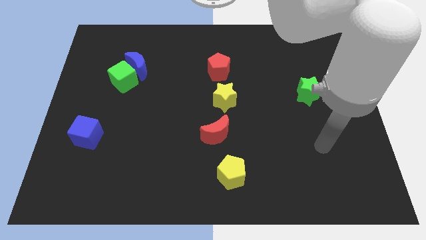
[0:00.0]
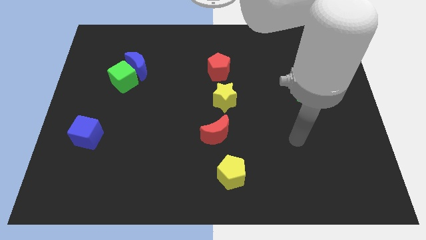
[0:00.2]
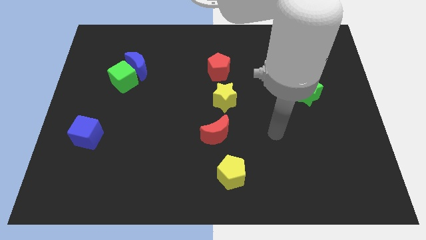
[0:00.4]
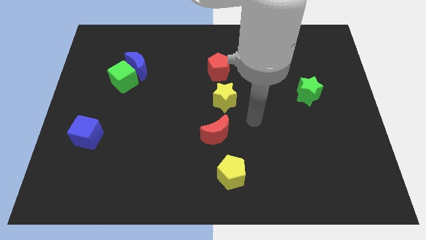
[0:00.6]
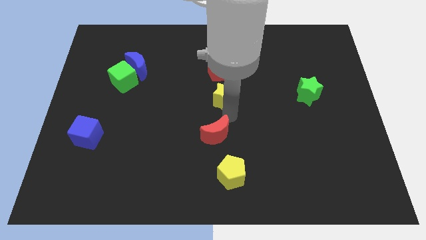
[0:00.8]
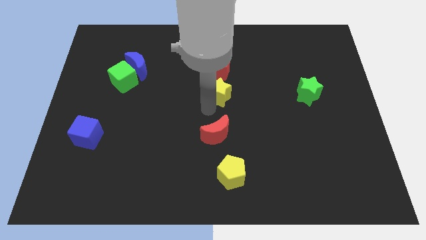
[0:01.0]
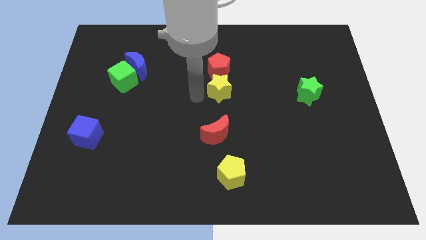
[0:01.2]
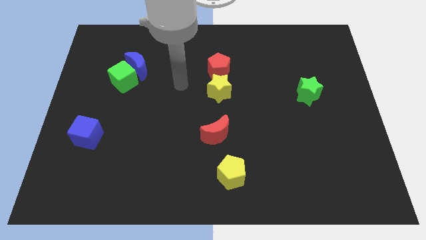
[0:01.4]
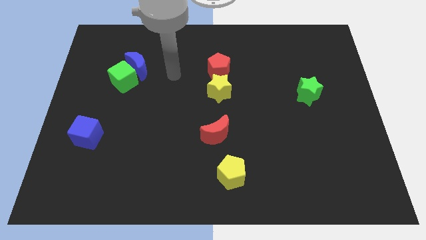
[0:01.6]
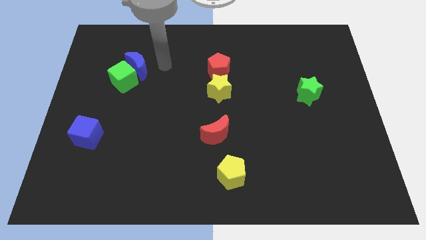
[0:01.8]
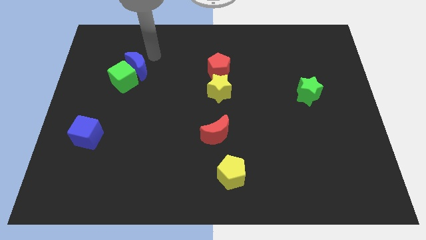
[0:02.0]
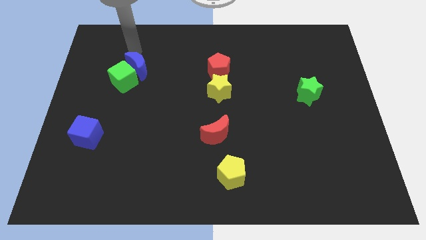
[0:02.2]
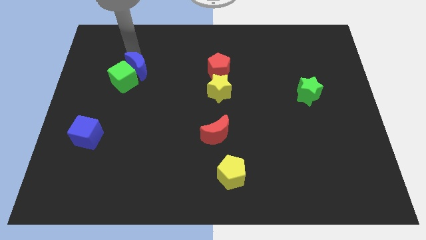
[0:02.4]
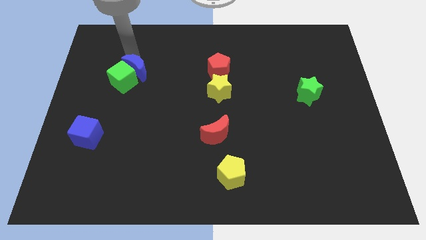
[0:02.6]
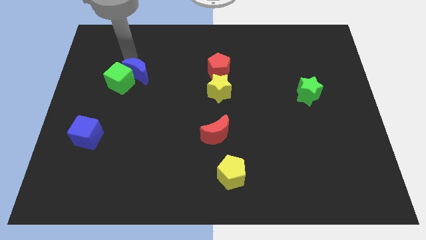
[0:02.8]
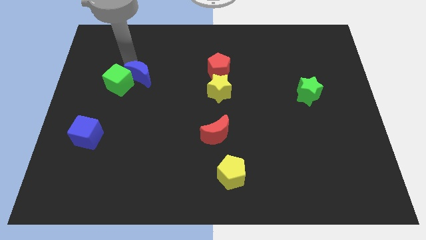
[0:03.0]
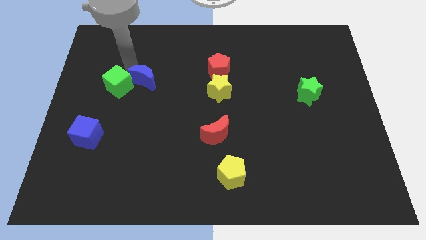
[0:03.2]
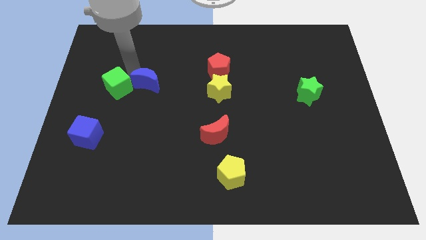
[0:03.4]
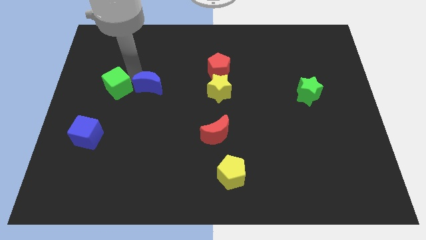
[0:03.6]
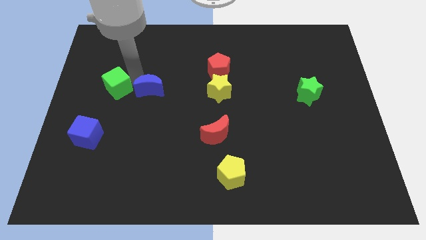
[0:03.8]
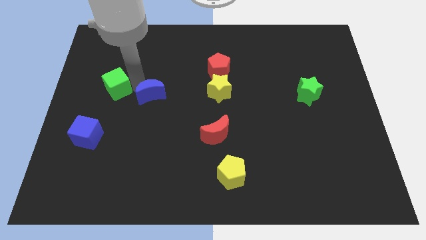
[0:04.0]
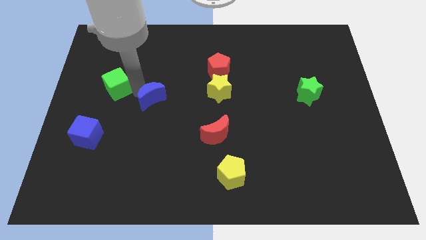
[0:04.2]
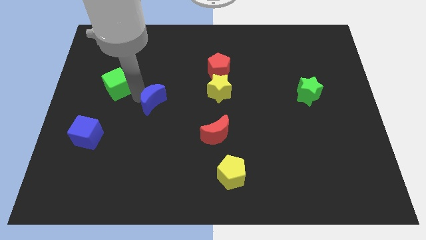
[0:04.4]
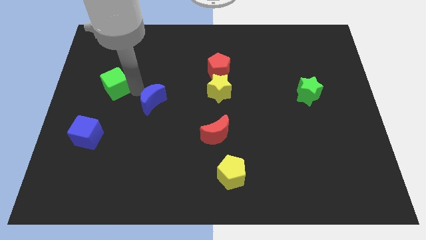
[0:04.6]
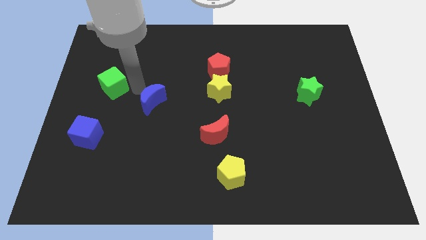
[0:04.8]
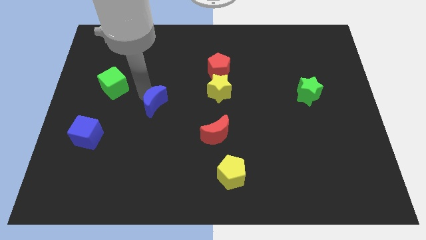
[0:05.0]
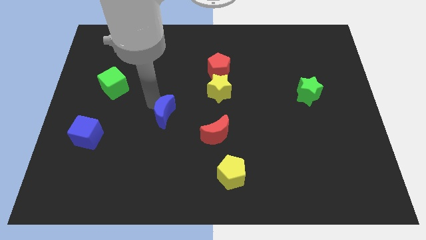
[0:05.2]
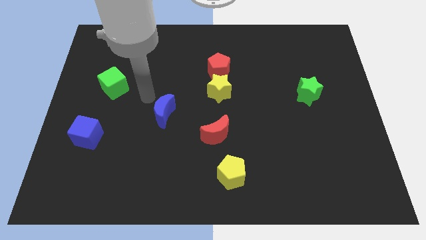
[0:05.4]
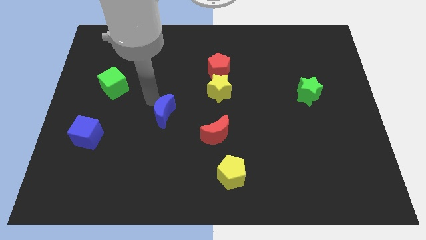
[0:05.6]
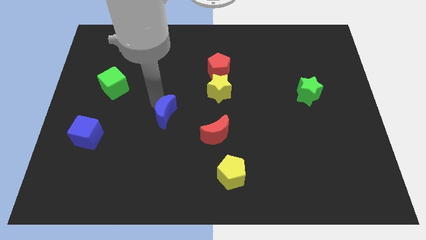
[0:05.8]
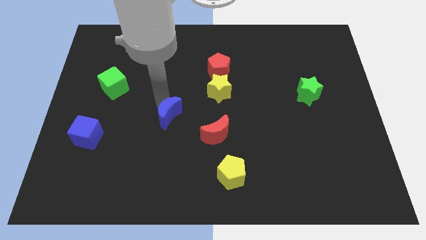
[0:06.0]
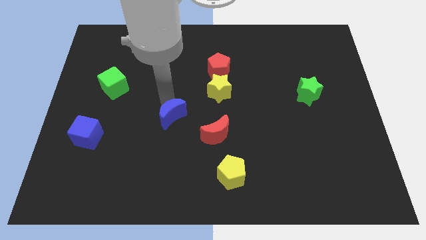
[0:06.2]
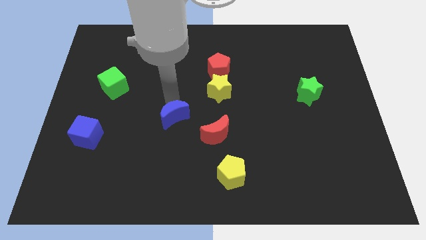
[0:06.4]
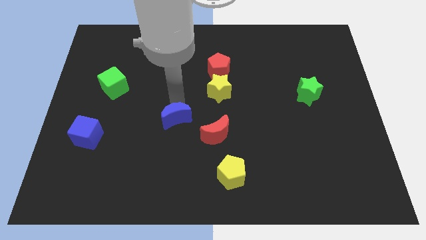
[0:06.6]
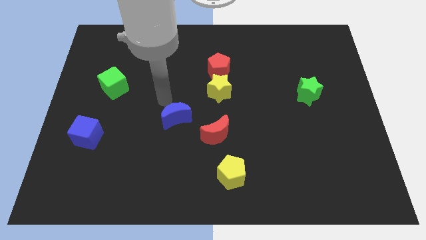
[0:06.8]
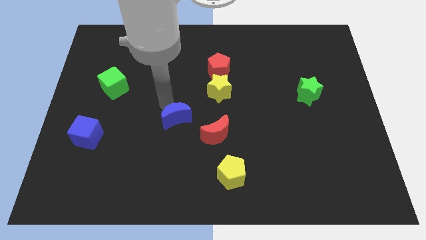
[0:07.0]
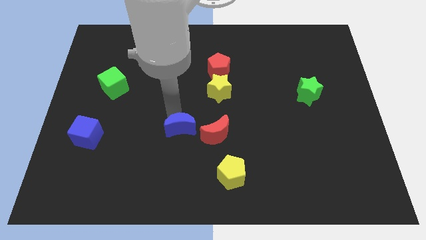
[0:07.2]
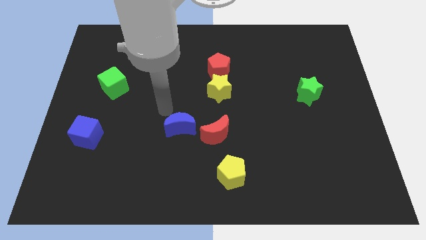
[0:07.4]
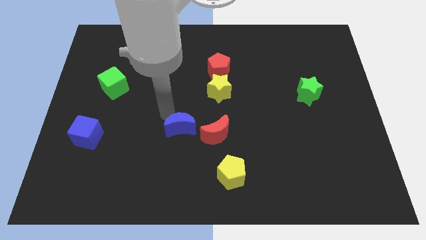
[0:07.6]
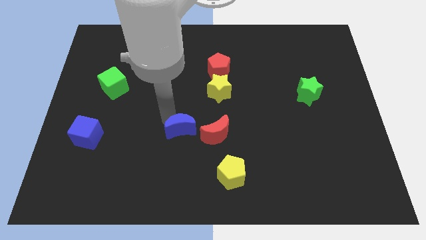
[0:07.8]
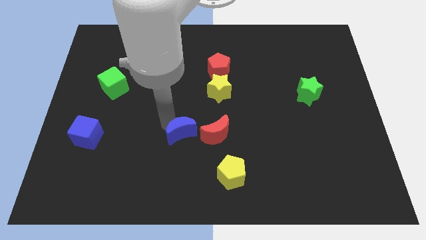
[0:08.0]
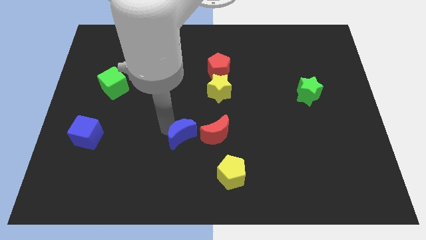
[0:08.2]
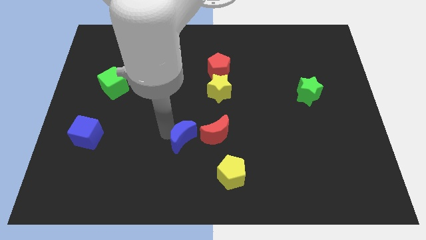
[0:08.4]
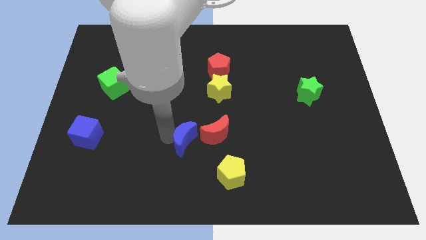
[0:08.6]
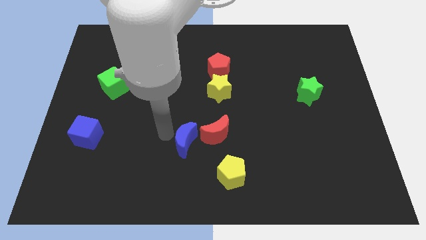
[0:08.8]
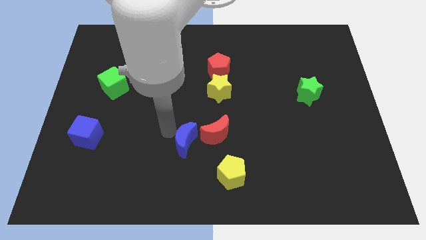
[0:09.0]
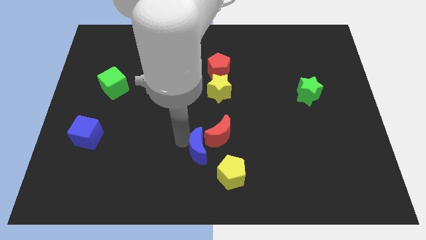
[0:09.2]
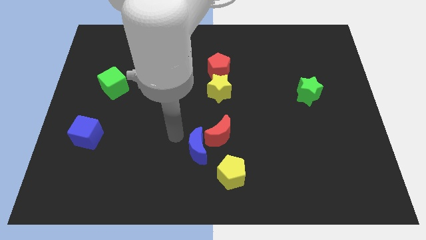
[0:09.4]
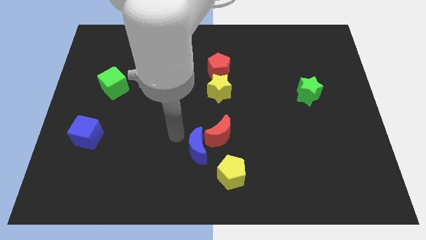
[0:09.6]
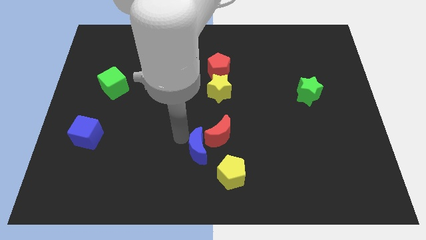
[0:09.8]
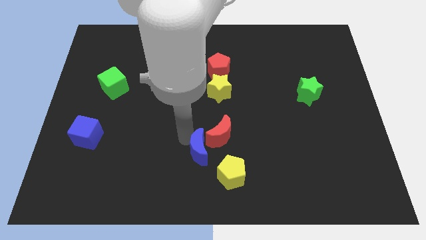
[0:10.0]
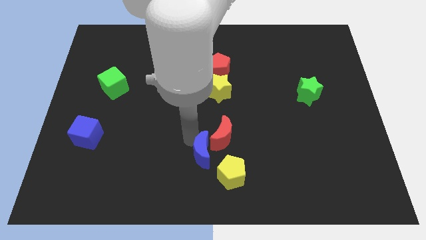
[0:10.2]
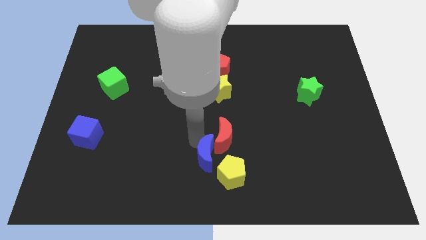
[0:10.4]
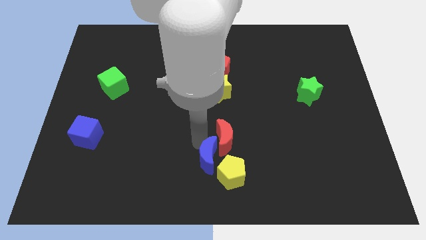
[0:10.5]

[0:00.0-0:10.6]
push the blue moon towards the yellow pentagon

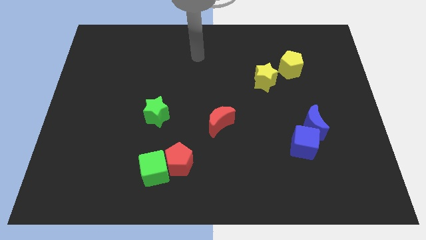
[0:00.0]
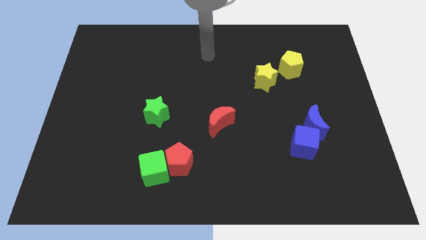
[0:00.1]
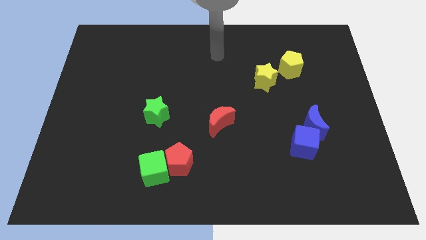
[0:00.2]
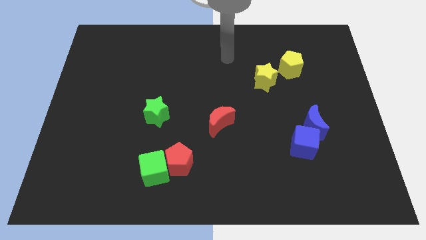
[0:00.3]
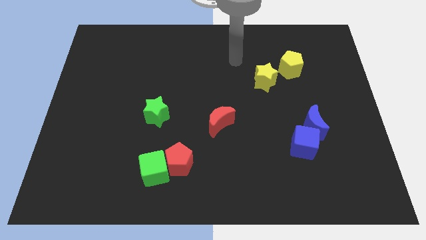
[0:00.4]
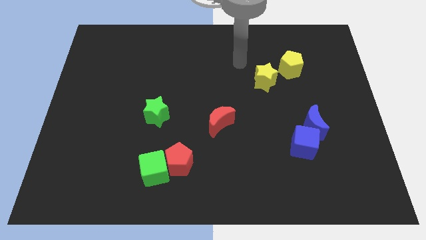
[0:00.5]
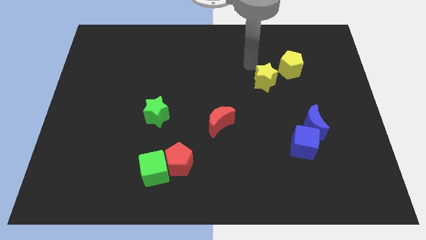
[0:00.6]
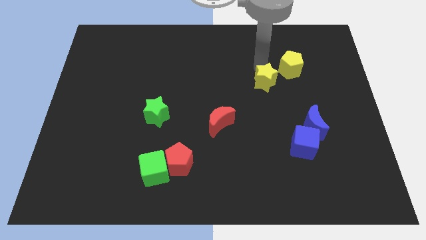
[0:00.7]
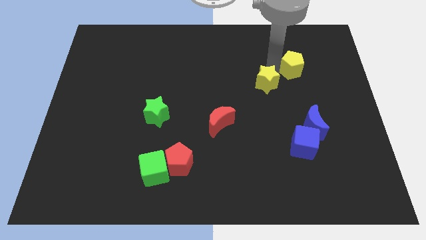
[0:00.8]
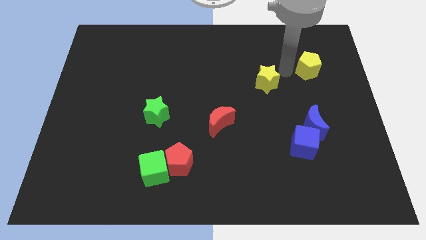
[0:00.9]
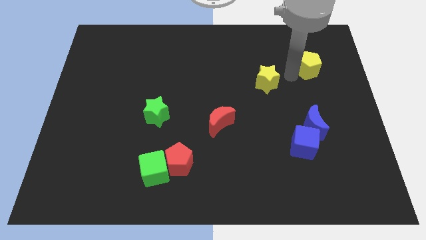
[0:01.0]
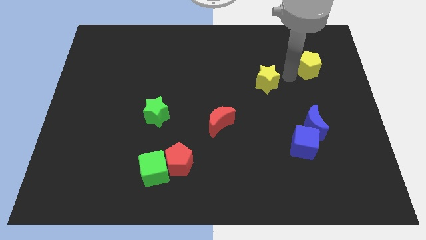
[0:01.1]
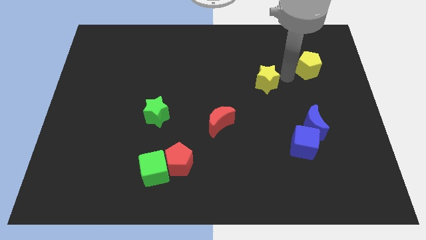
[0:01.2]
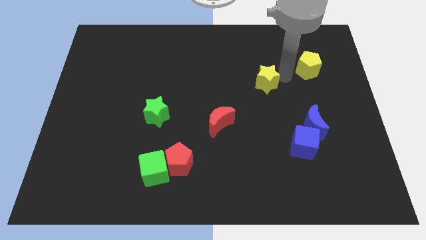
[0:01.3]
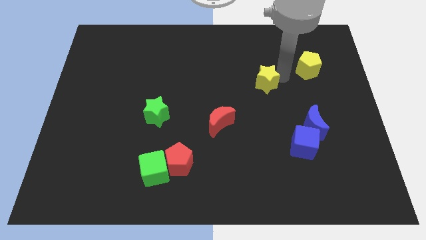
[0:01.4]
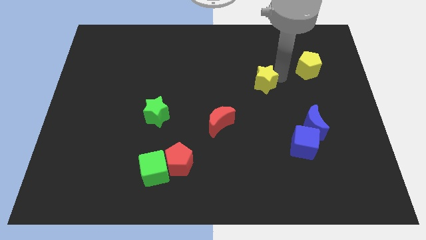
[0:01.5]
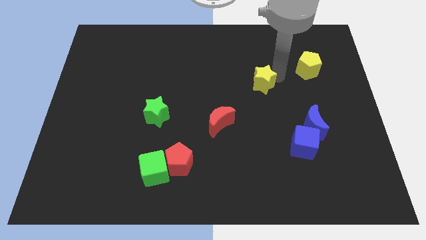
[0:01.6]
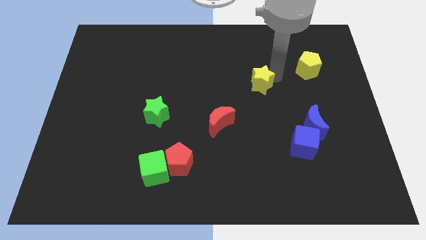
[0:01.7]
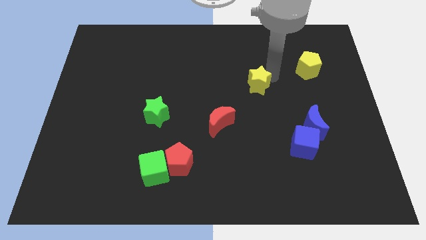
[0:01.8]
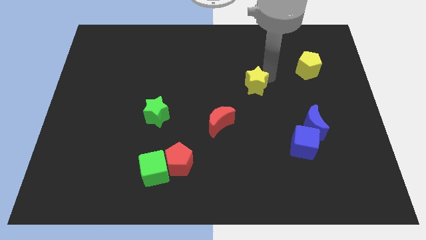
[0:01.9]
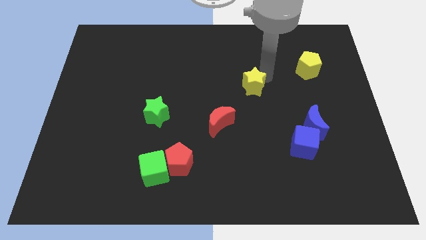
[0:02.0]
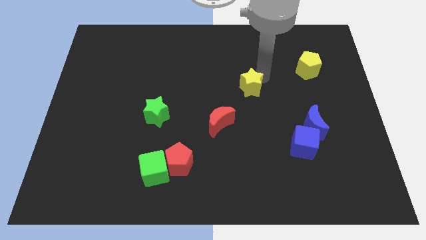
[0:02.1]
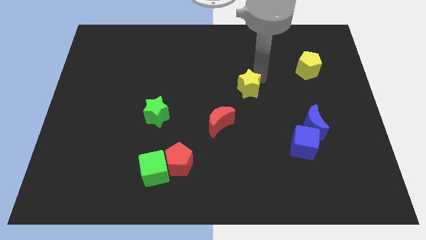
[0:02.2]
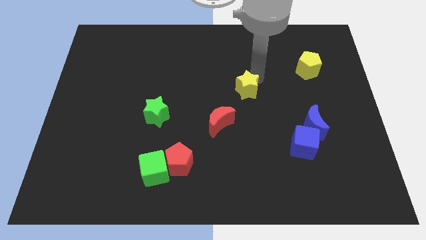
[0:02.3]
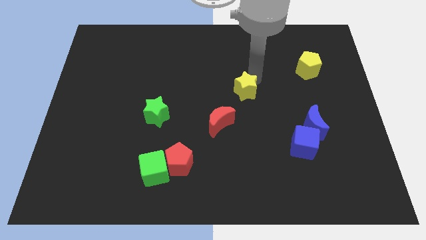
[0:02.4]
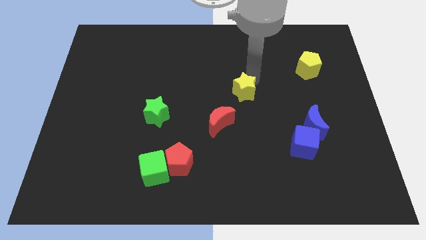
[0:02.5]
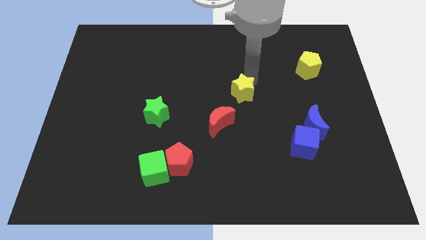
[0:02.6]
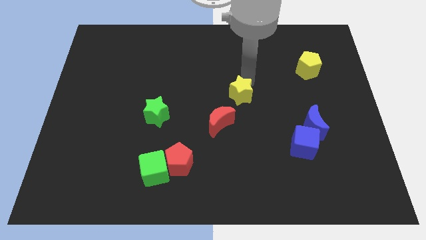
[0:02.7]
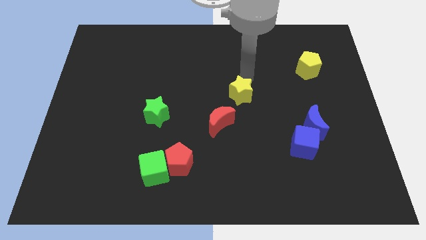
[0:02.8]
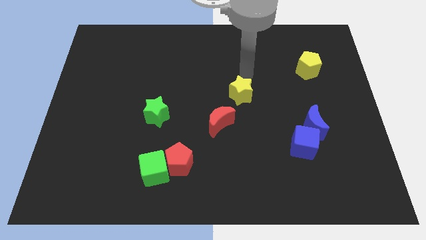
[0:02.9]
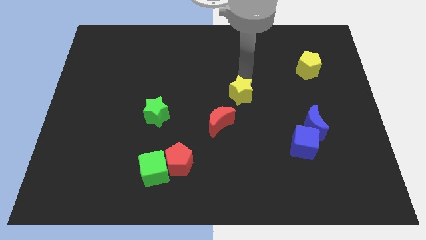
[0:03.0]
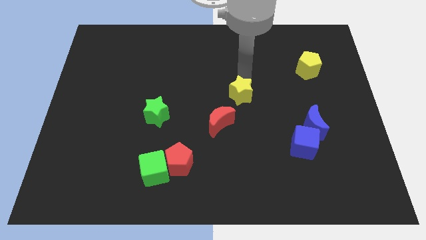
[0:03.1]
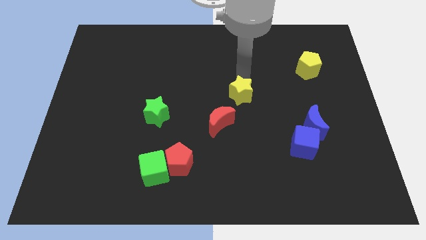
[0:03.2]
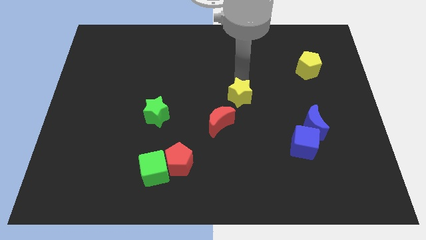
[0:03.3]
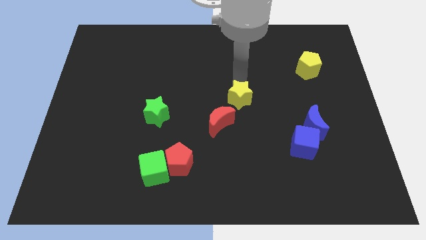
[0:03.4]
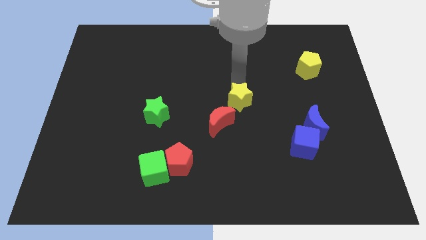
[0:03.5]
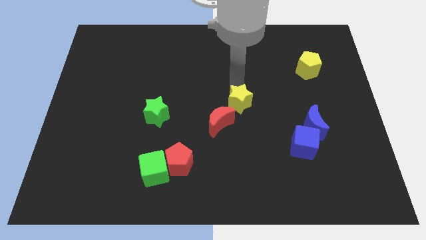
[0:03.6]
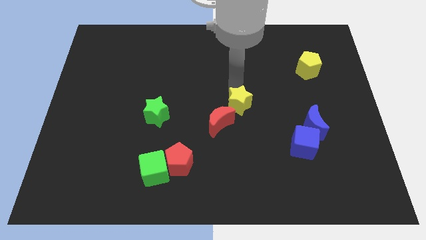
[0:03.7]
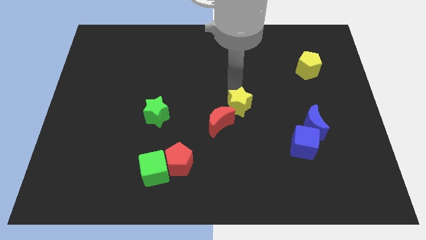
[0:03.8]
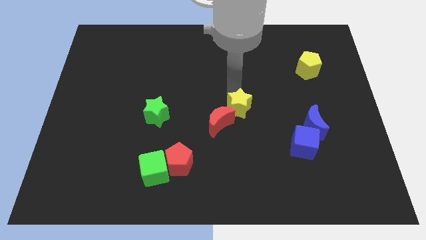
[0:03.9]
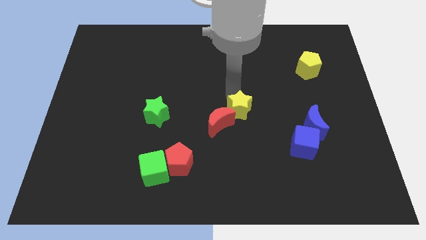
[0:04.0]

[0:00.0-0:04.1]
slide the yellow star towards the red moon
